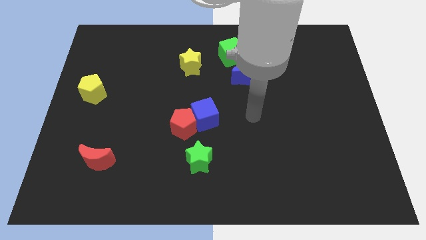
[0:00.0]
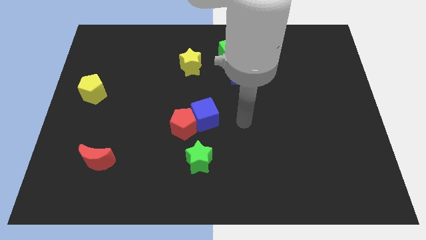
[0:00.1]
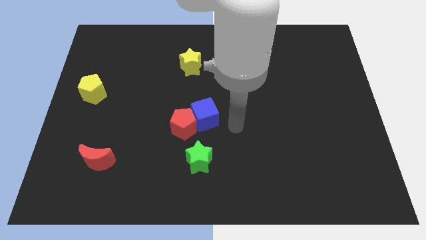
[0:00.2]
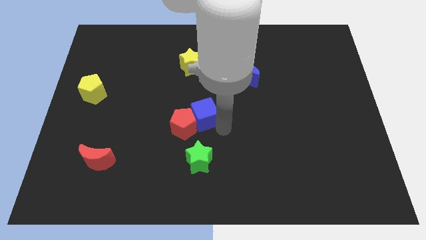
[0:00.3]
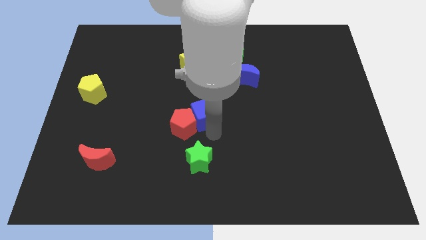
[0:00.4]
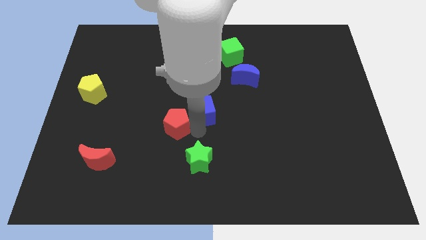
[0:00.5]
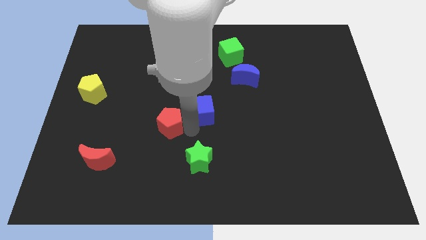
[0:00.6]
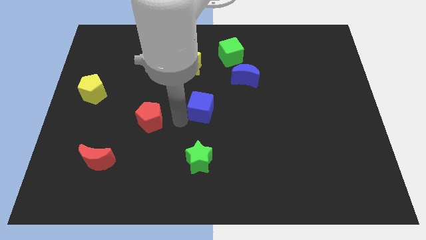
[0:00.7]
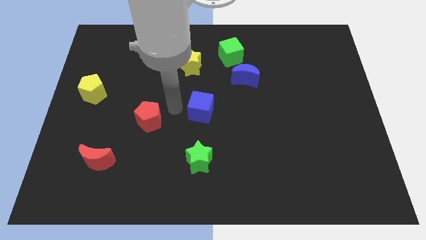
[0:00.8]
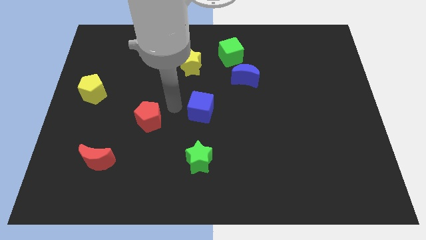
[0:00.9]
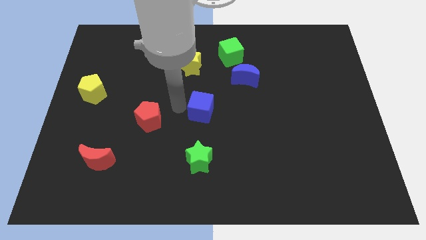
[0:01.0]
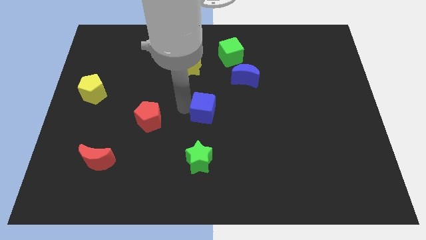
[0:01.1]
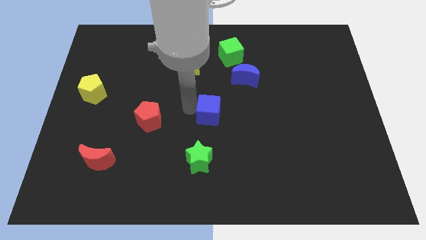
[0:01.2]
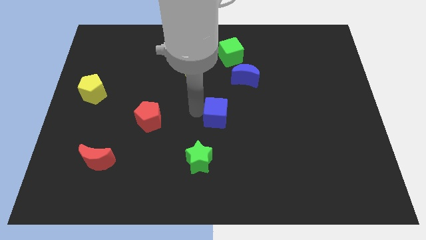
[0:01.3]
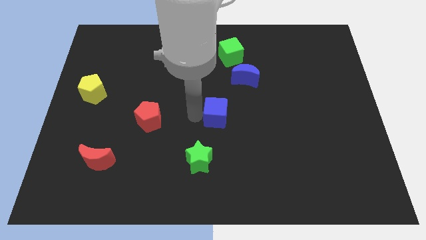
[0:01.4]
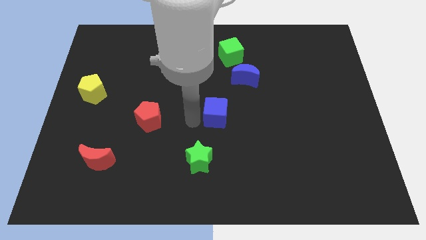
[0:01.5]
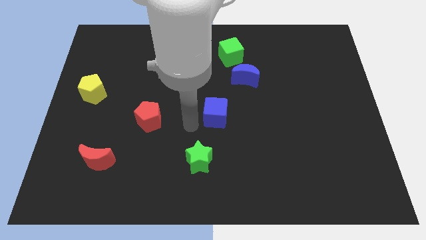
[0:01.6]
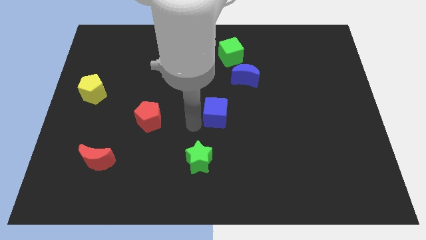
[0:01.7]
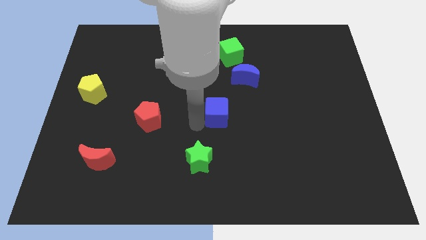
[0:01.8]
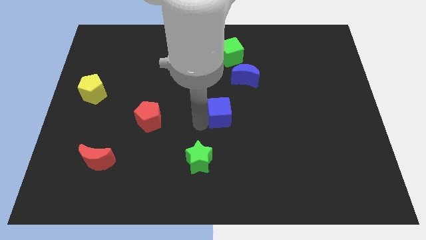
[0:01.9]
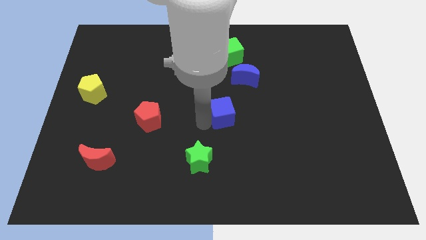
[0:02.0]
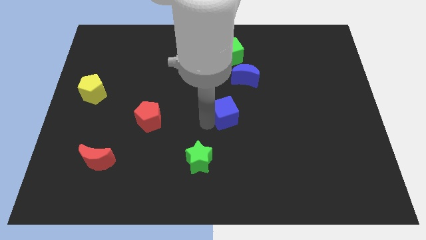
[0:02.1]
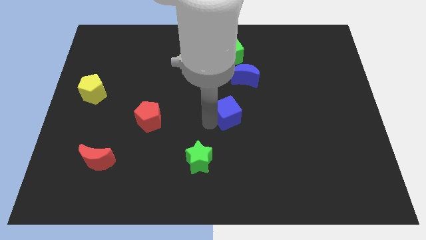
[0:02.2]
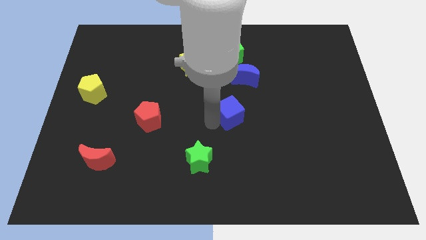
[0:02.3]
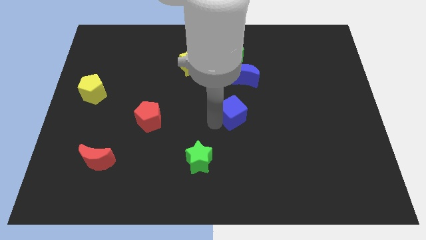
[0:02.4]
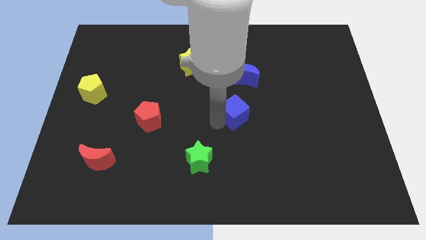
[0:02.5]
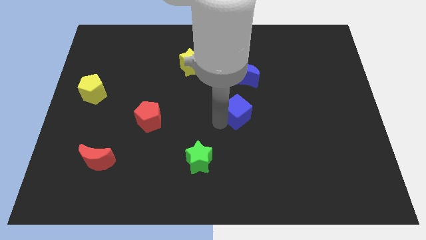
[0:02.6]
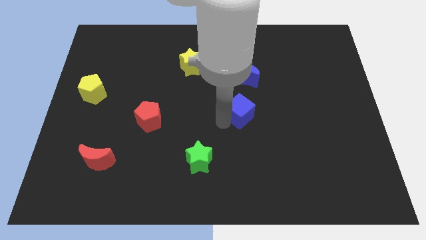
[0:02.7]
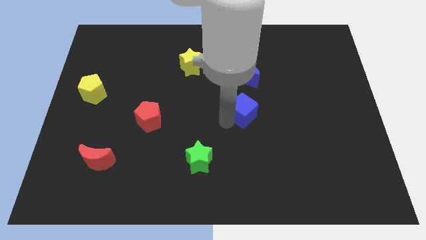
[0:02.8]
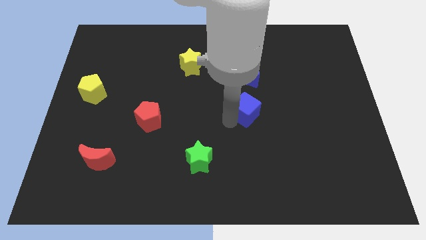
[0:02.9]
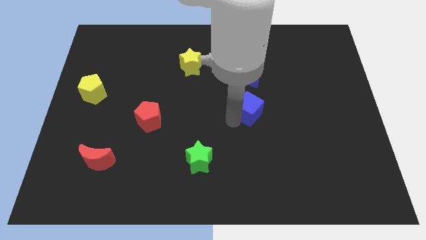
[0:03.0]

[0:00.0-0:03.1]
push the blue cube slightly upwards and to the right diagonally

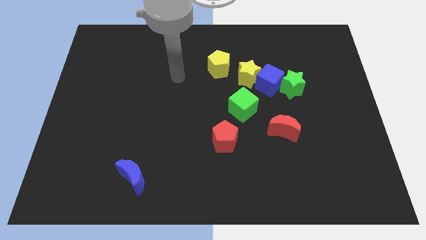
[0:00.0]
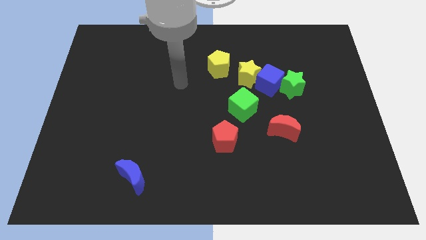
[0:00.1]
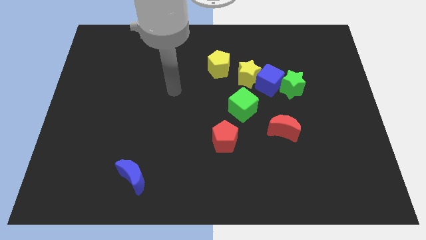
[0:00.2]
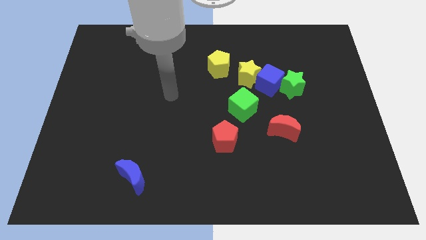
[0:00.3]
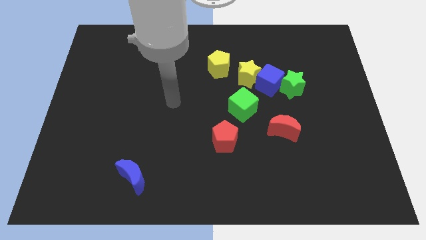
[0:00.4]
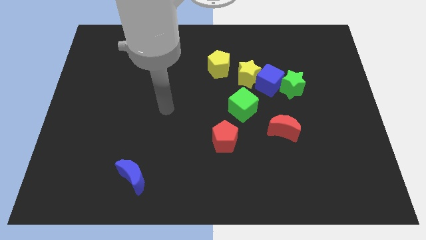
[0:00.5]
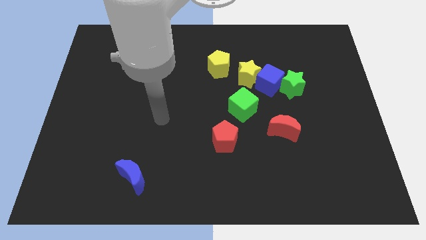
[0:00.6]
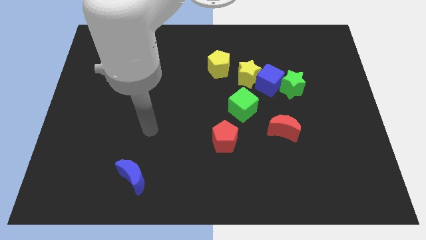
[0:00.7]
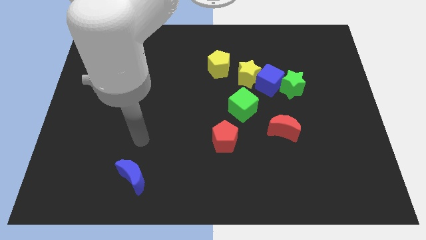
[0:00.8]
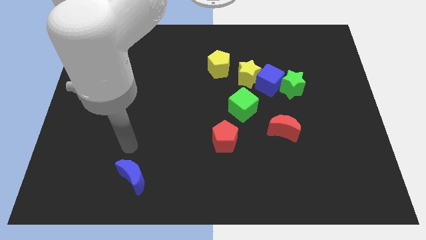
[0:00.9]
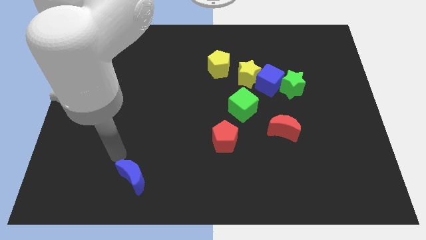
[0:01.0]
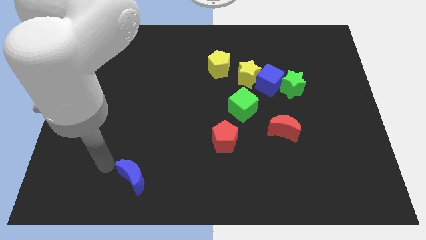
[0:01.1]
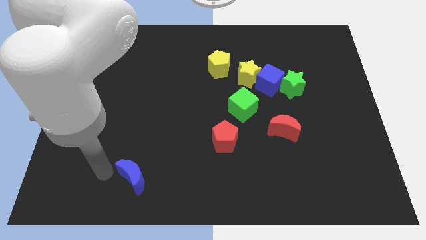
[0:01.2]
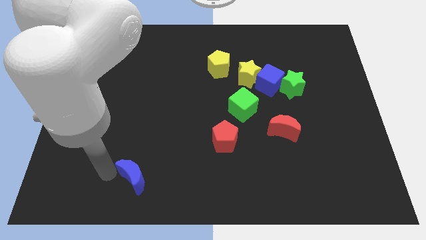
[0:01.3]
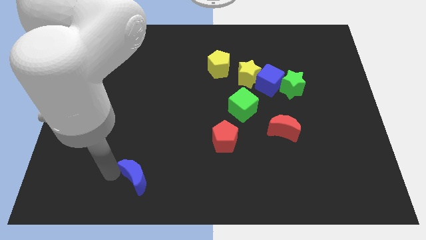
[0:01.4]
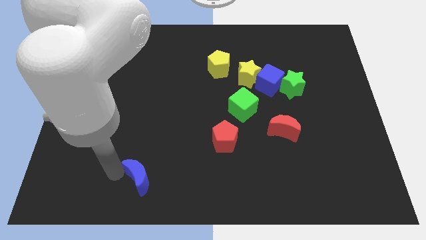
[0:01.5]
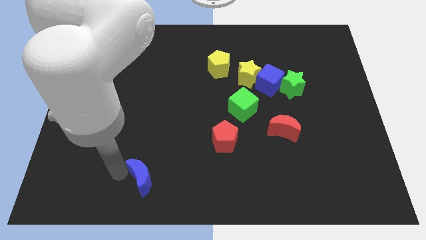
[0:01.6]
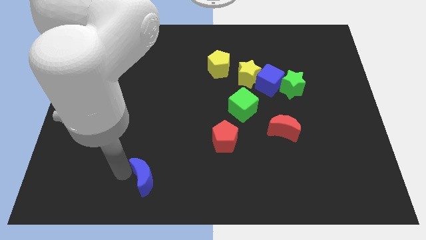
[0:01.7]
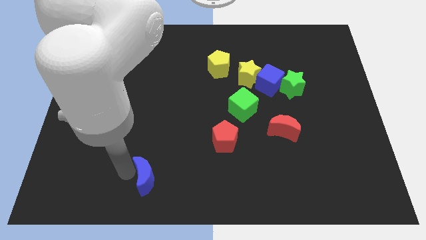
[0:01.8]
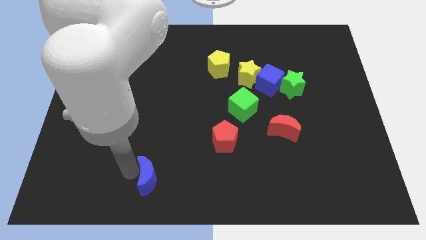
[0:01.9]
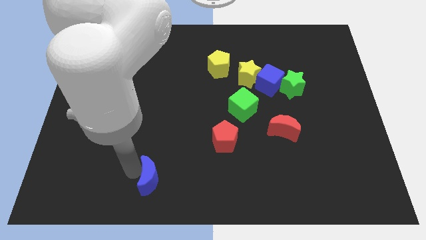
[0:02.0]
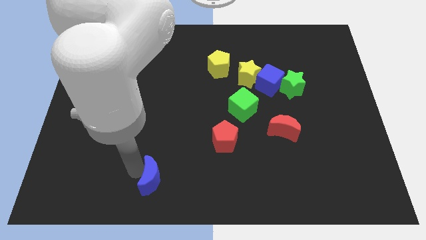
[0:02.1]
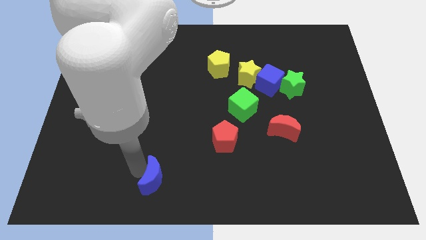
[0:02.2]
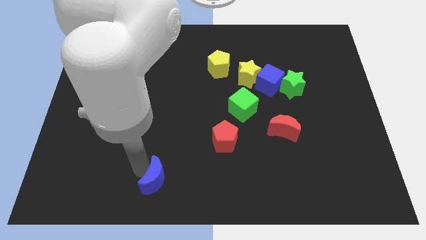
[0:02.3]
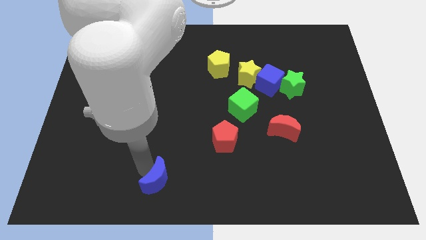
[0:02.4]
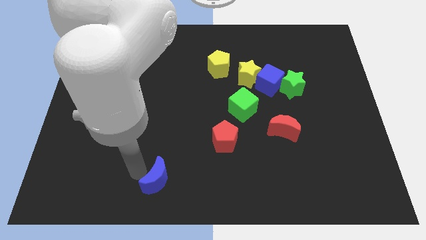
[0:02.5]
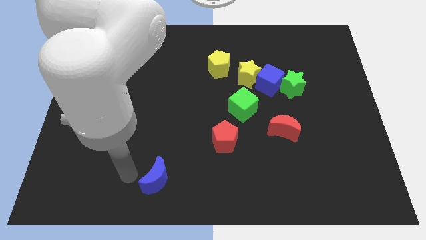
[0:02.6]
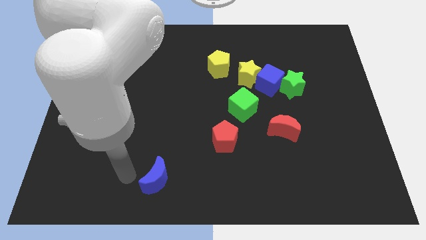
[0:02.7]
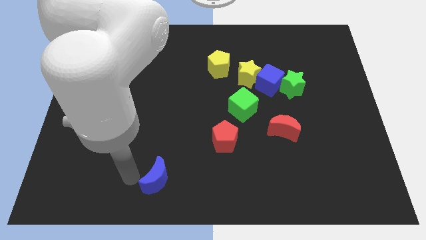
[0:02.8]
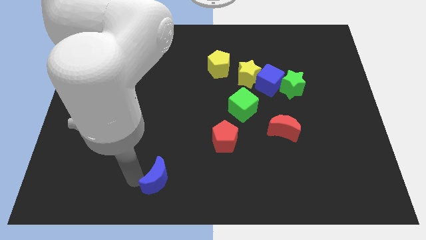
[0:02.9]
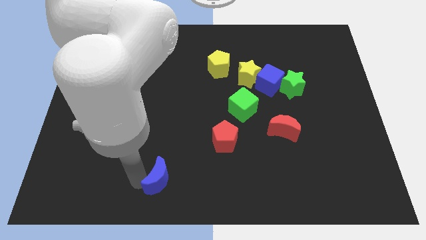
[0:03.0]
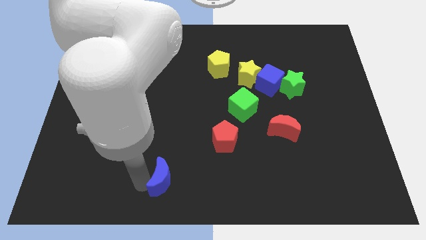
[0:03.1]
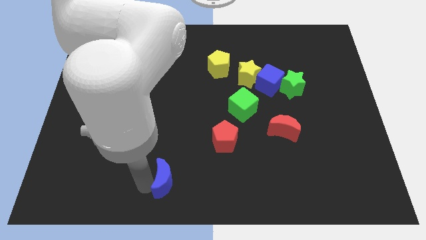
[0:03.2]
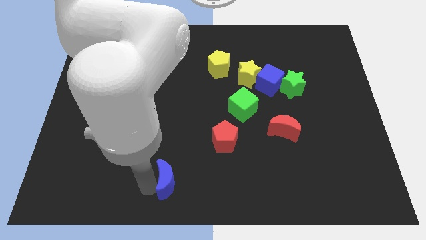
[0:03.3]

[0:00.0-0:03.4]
slightly slide the blue moon right

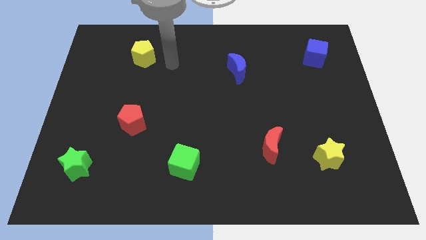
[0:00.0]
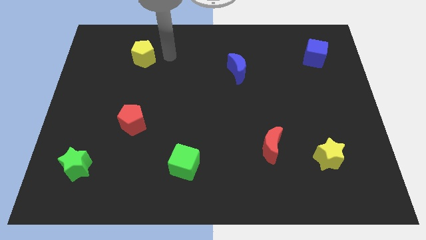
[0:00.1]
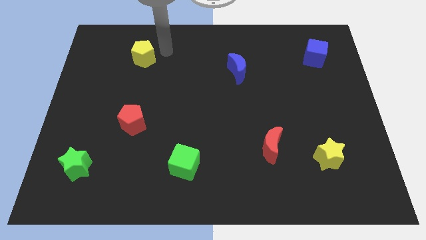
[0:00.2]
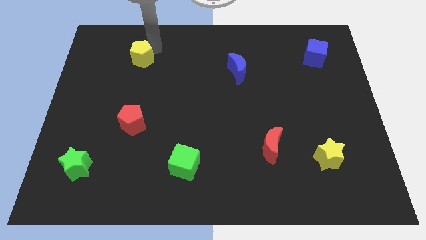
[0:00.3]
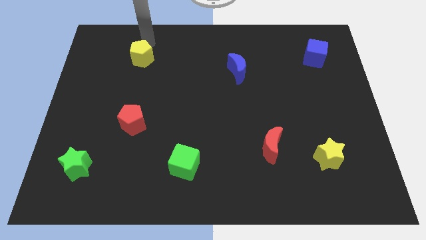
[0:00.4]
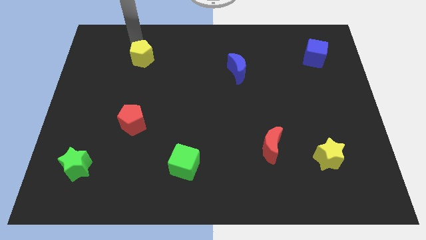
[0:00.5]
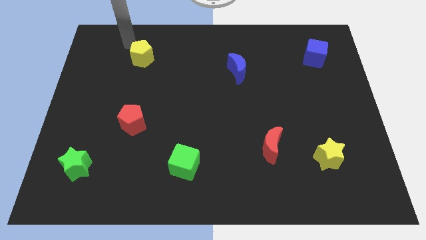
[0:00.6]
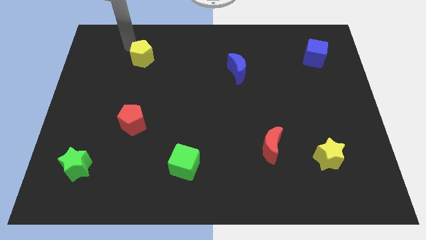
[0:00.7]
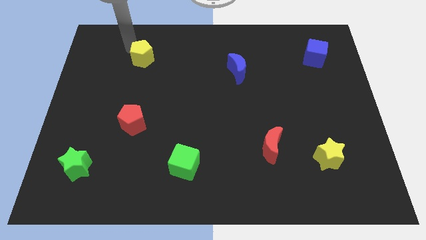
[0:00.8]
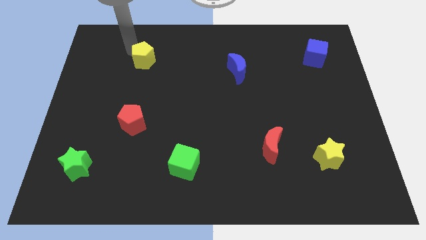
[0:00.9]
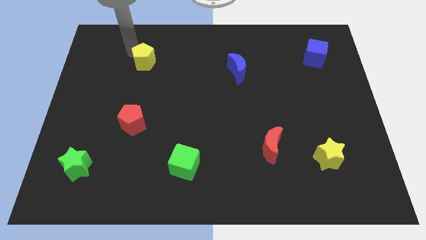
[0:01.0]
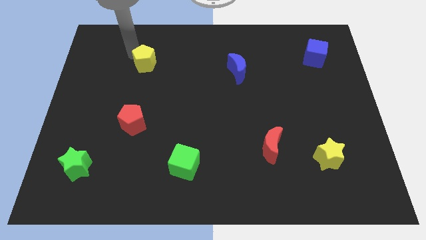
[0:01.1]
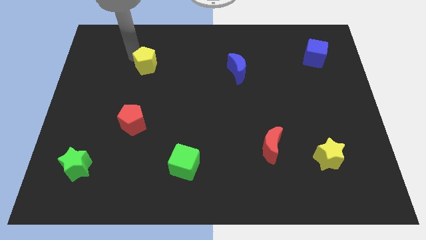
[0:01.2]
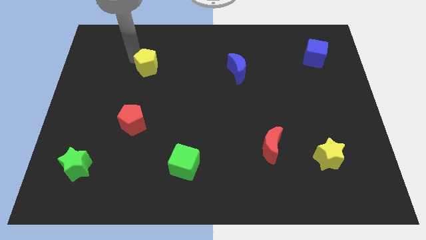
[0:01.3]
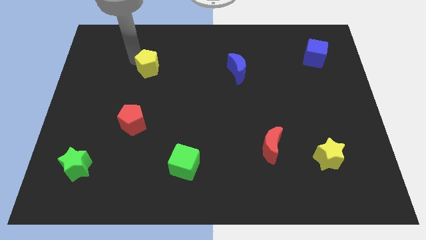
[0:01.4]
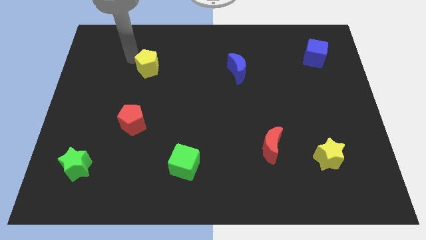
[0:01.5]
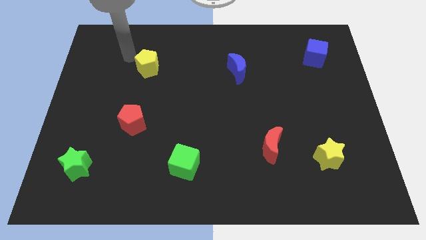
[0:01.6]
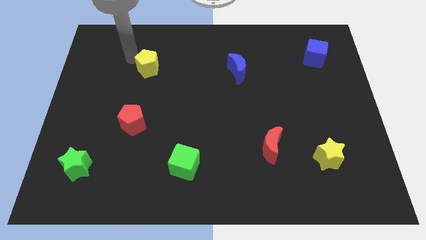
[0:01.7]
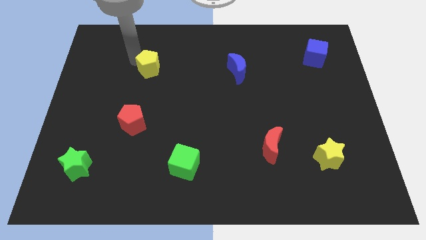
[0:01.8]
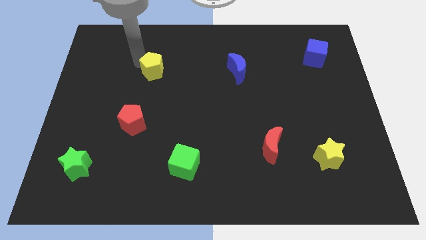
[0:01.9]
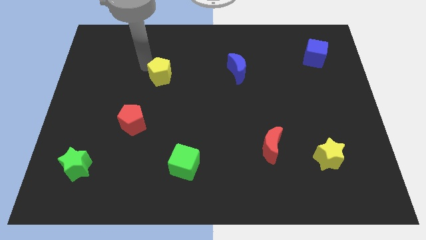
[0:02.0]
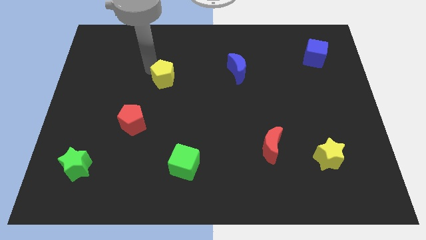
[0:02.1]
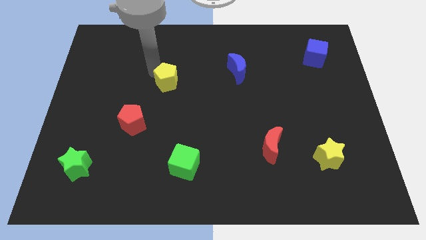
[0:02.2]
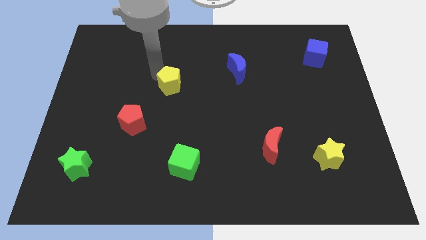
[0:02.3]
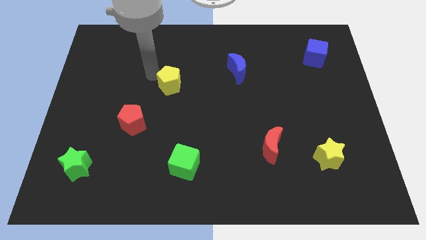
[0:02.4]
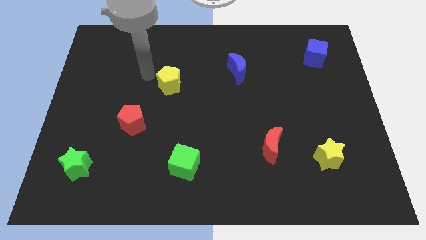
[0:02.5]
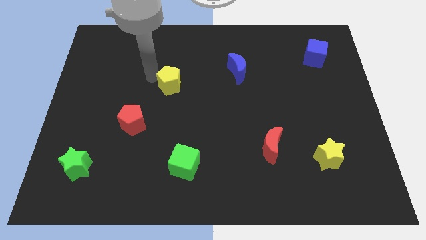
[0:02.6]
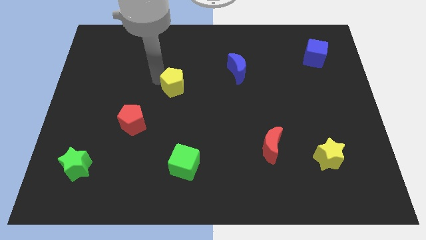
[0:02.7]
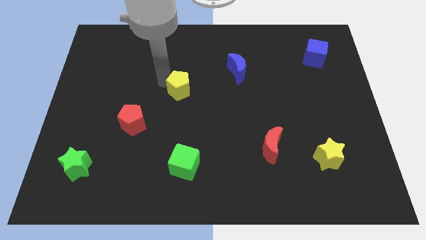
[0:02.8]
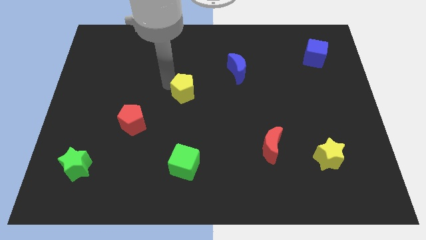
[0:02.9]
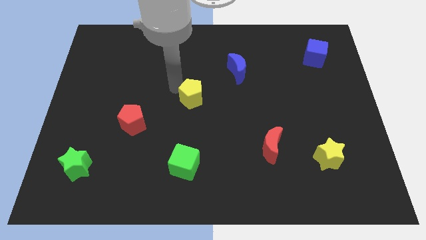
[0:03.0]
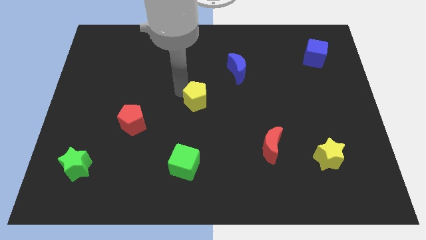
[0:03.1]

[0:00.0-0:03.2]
slide the yellow pentagon diagonally down and to the right
